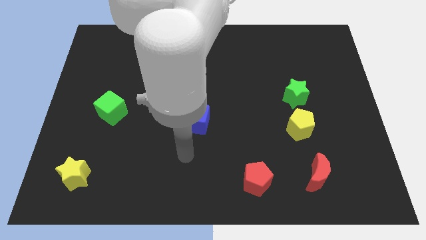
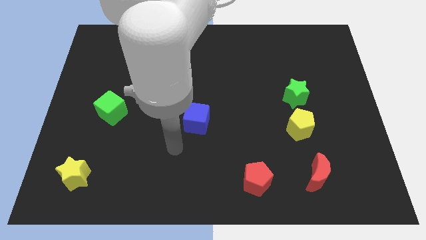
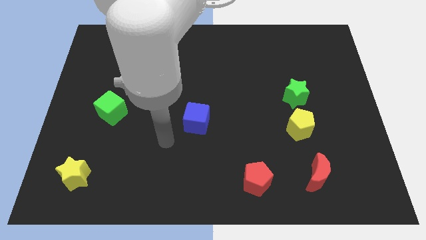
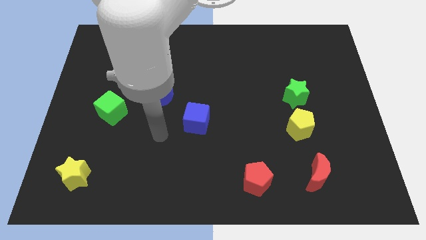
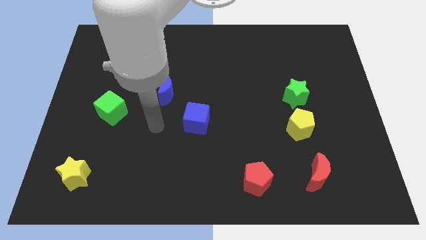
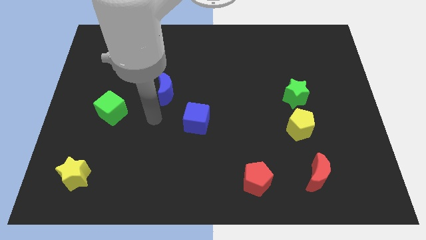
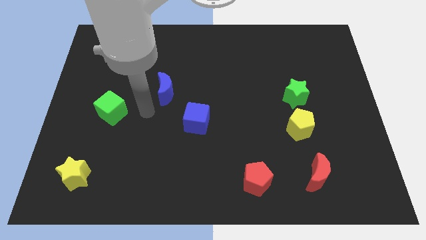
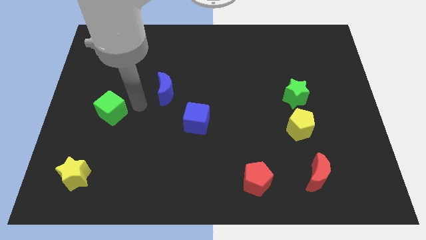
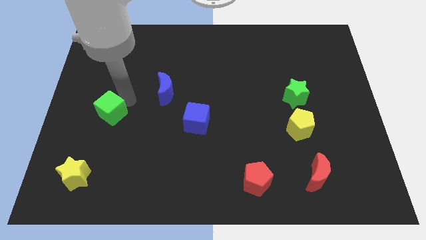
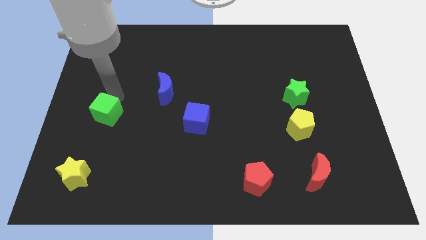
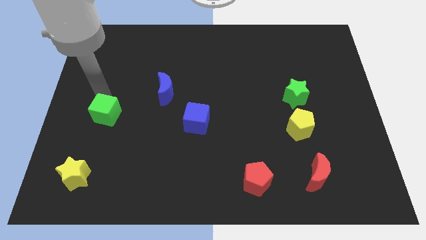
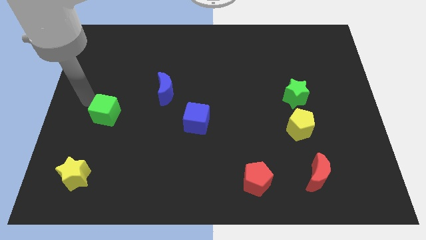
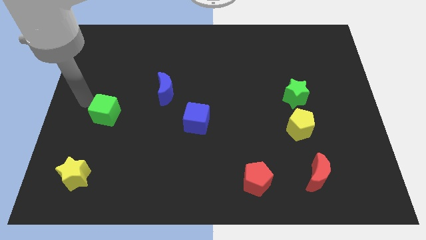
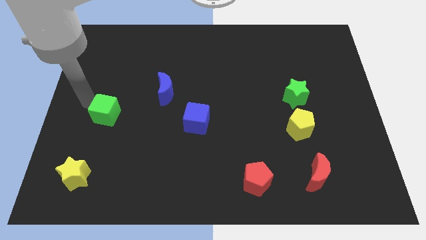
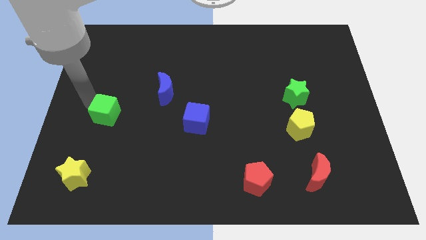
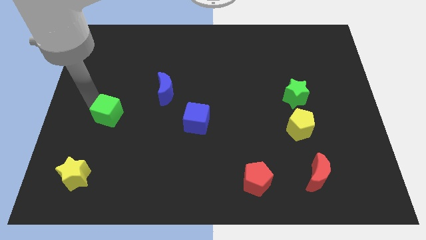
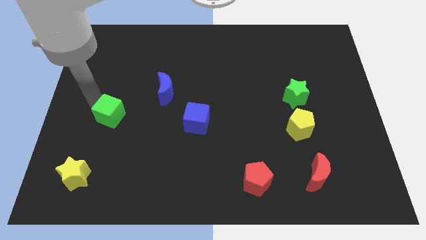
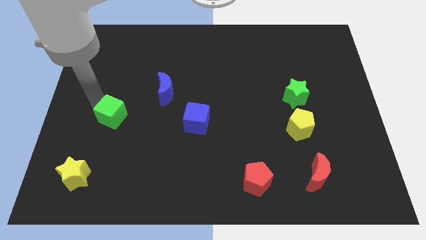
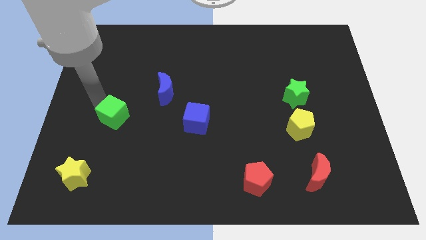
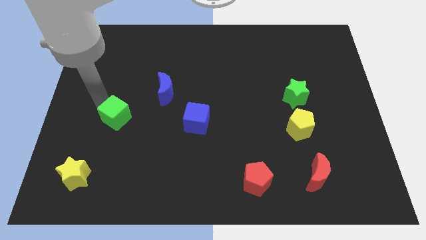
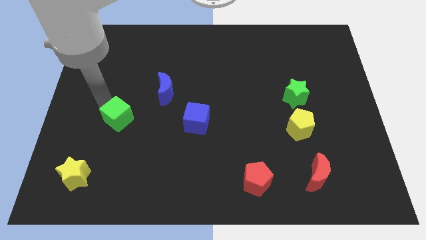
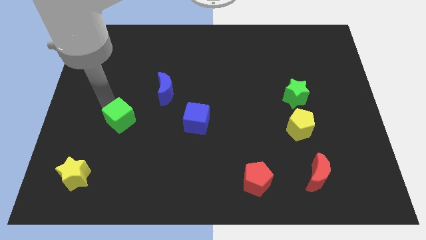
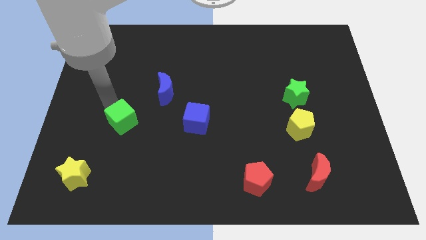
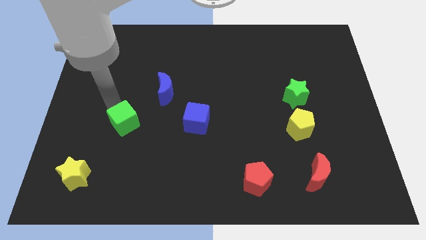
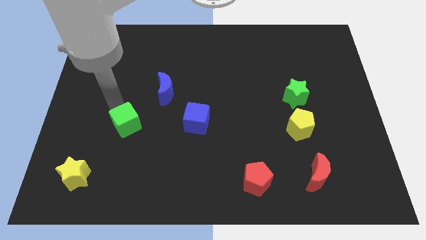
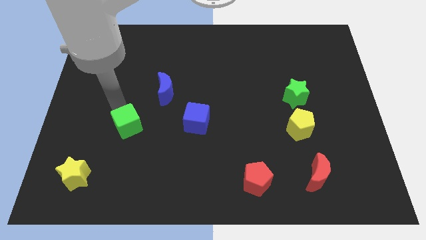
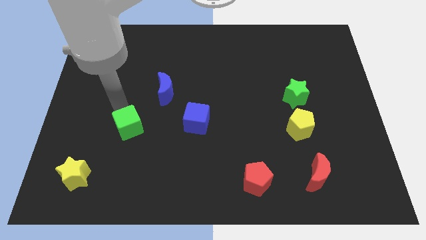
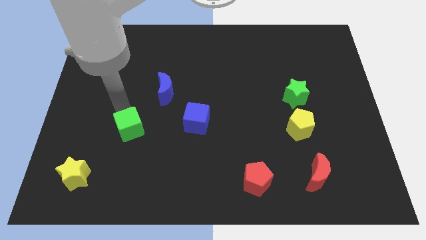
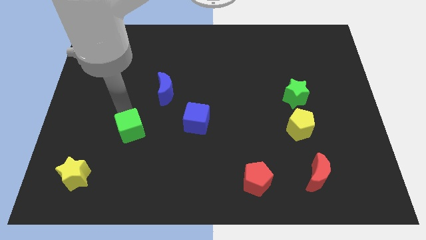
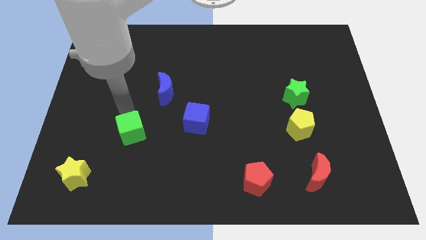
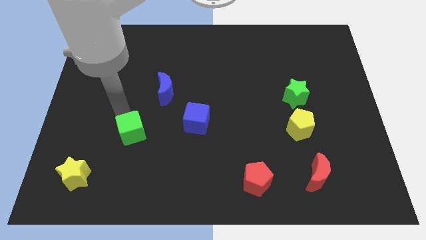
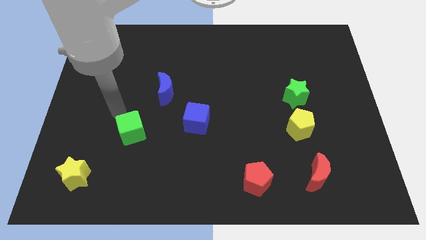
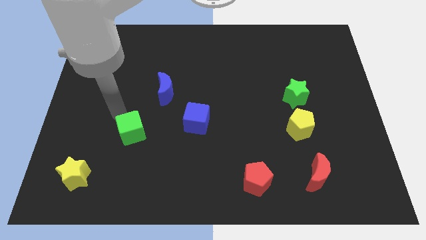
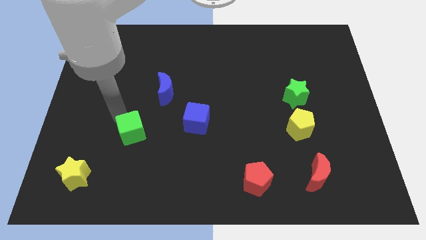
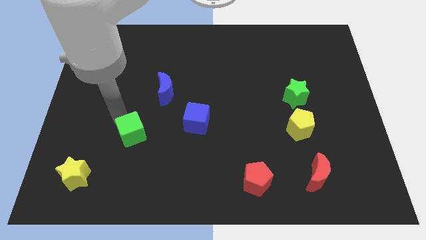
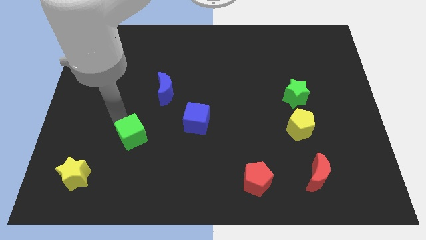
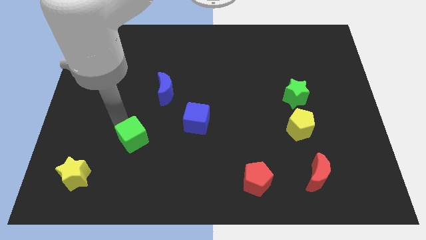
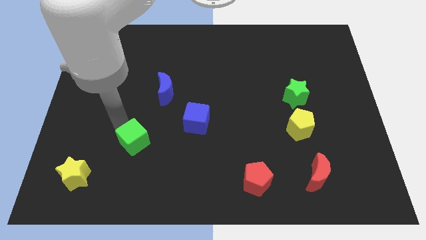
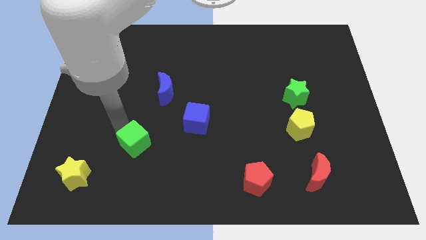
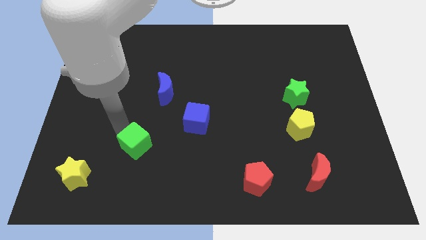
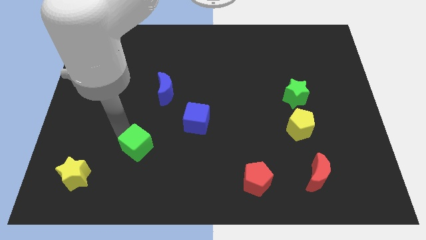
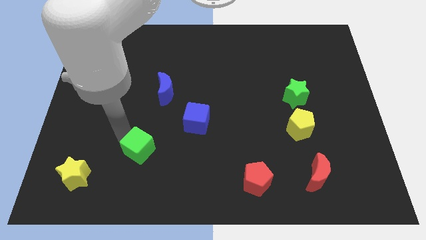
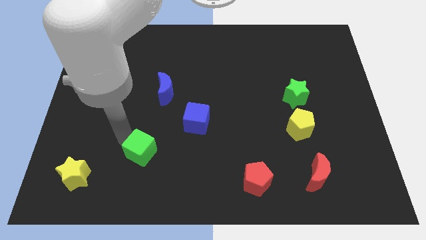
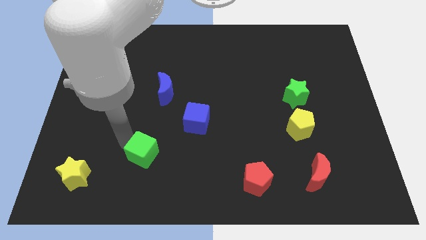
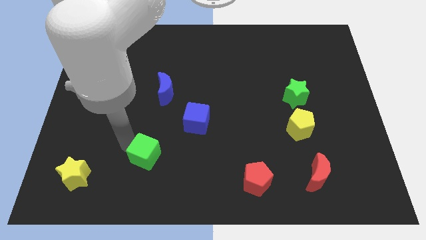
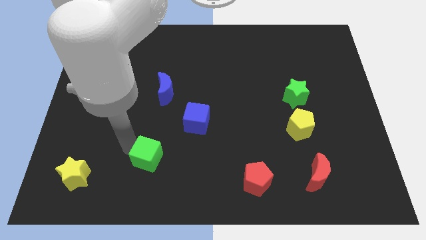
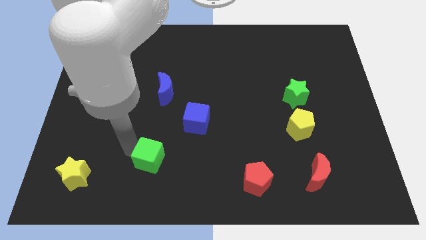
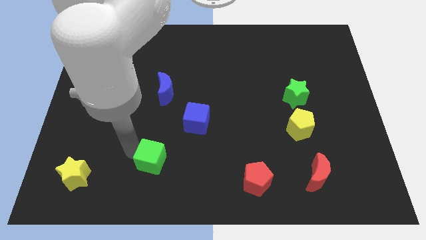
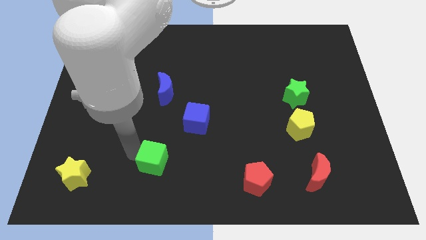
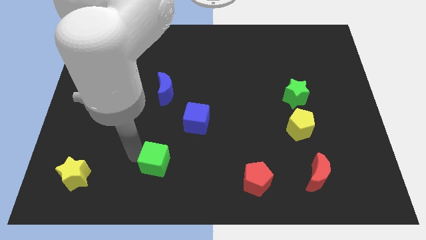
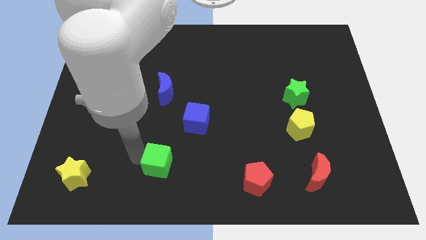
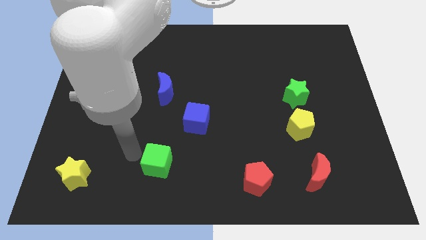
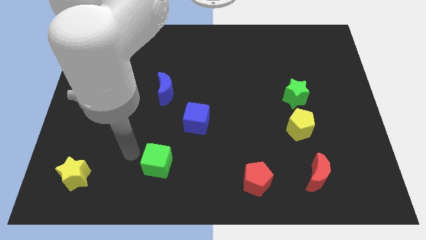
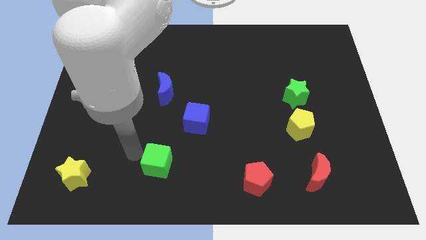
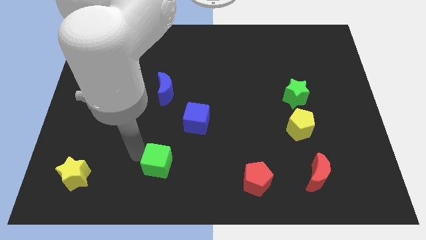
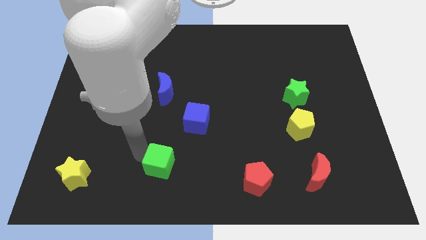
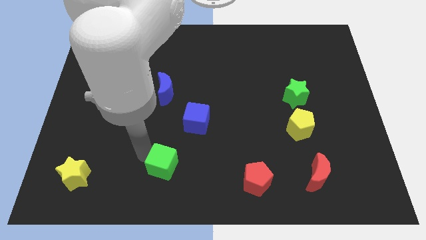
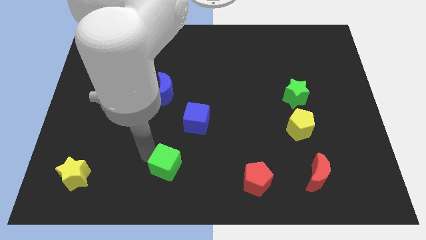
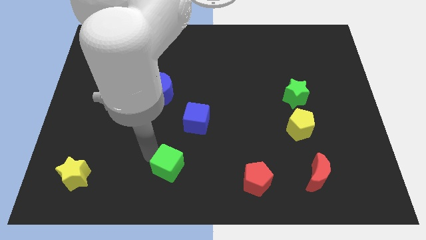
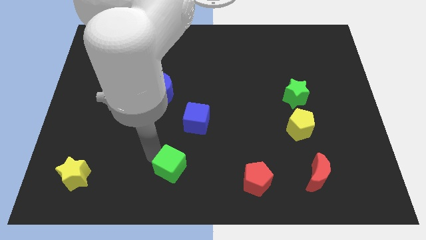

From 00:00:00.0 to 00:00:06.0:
put the green cube to the bottom

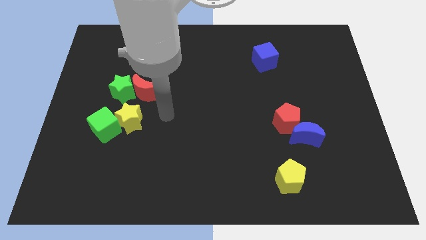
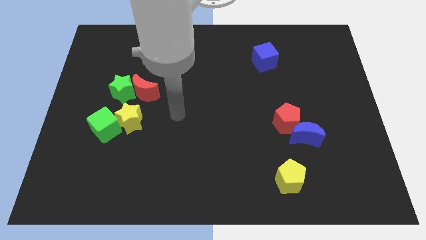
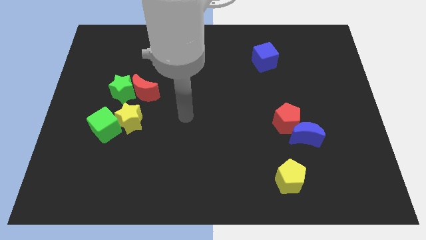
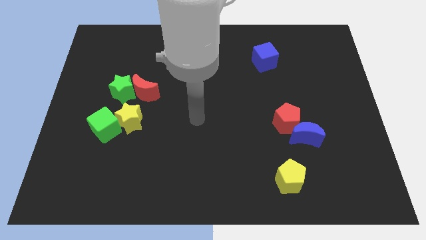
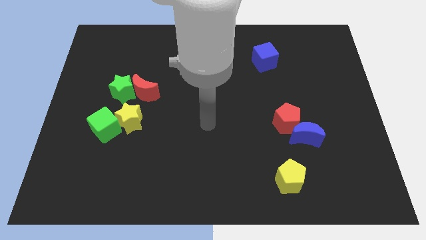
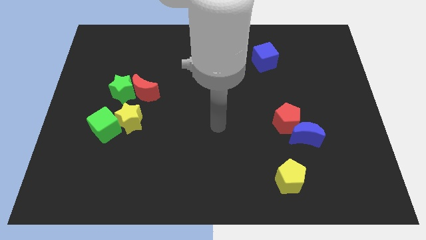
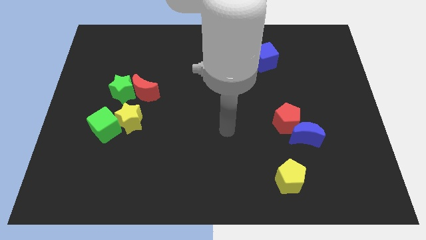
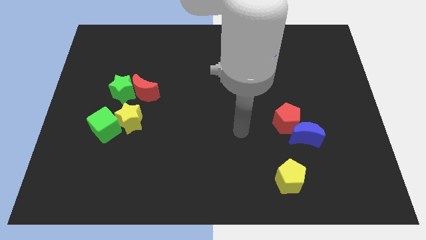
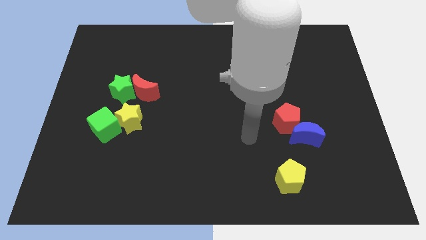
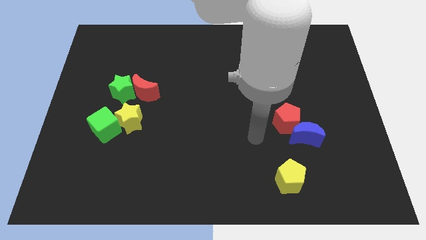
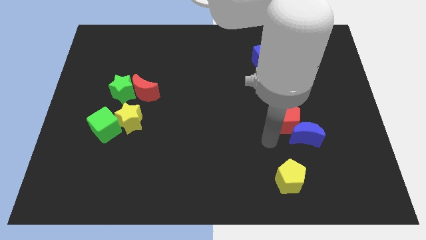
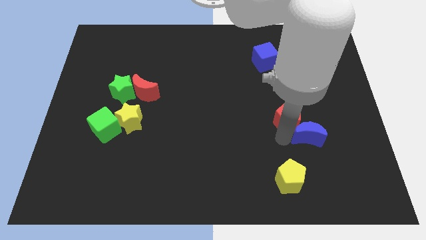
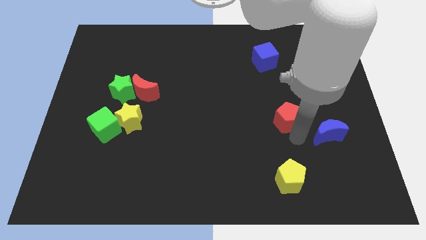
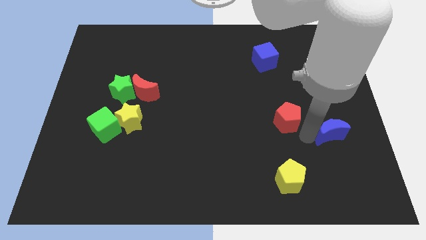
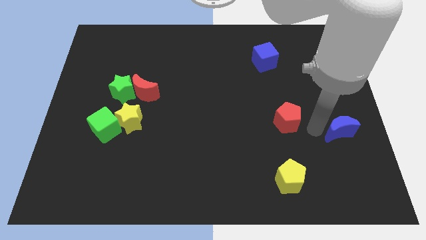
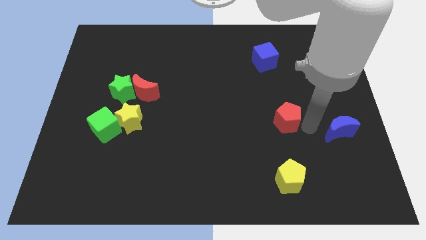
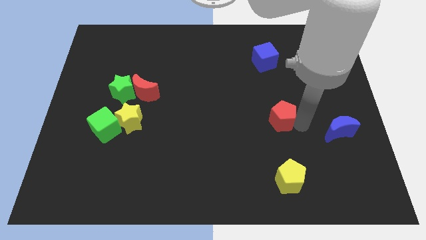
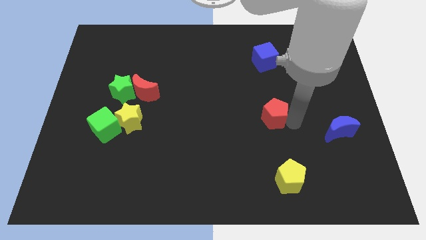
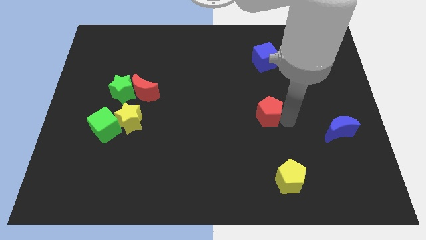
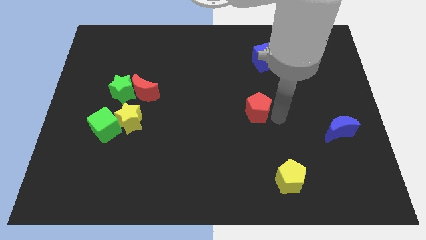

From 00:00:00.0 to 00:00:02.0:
put the red pentagon to the middle
